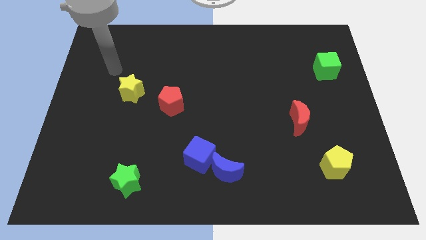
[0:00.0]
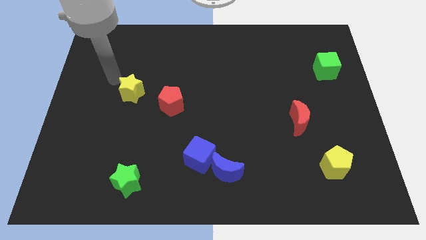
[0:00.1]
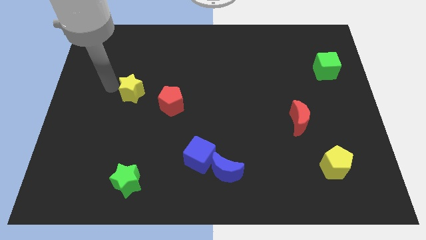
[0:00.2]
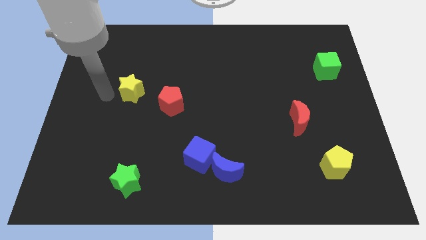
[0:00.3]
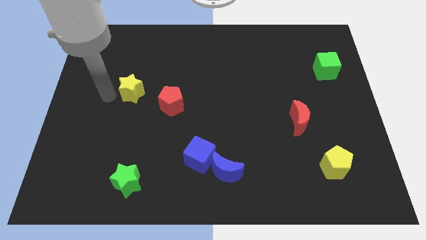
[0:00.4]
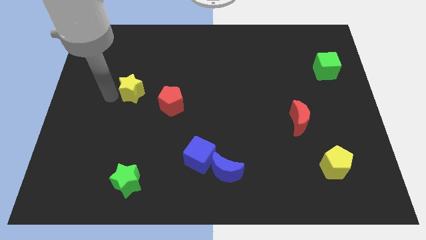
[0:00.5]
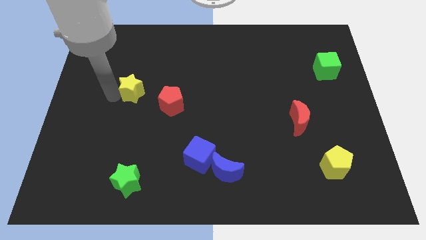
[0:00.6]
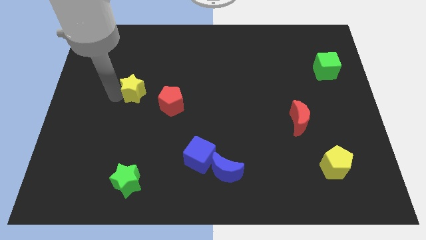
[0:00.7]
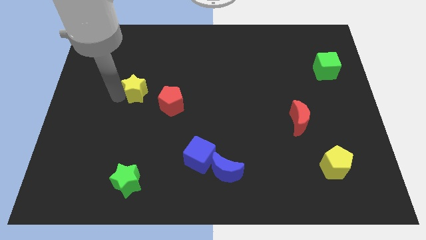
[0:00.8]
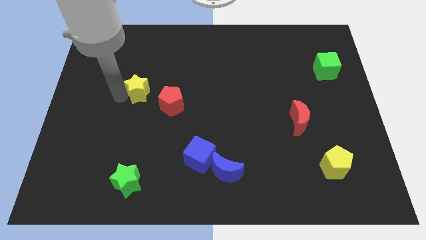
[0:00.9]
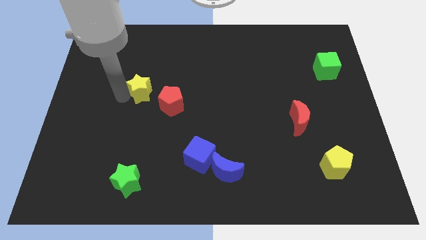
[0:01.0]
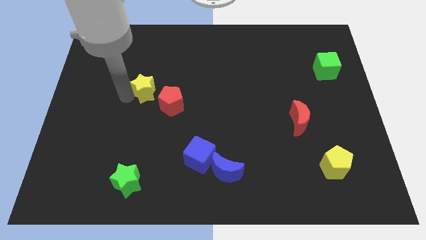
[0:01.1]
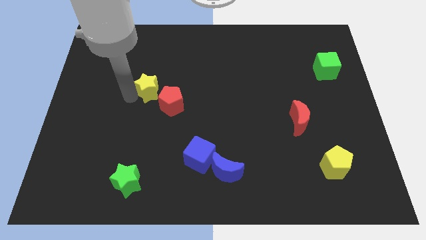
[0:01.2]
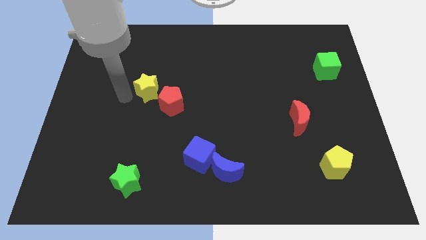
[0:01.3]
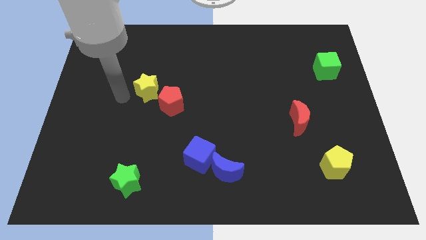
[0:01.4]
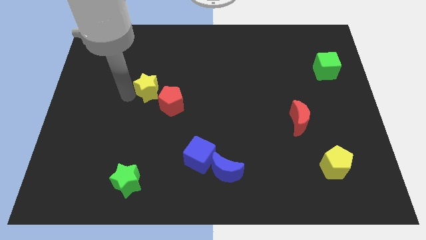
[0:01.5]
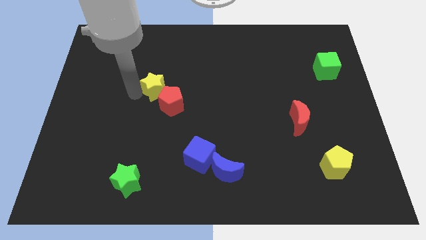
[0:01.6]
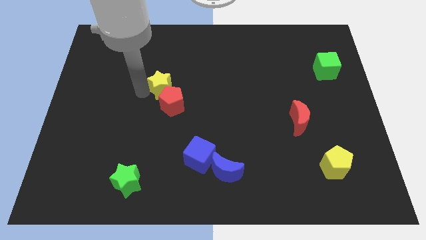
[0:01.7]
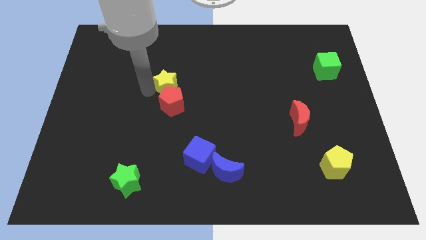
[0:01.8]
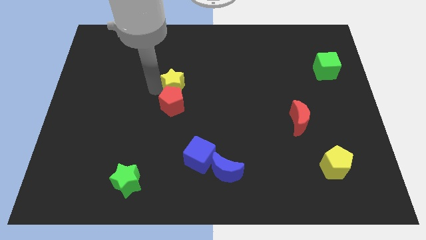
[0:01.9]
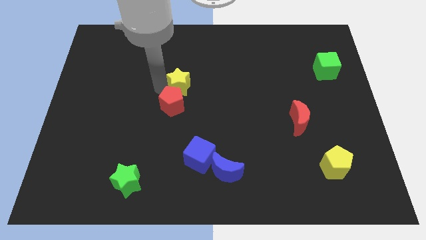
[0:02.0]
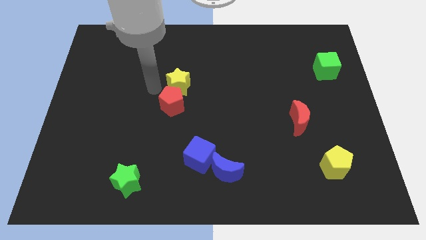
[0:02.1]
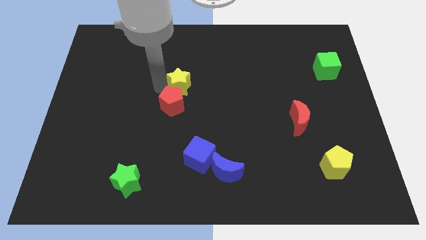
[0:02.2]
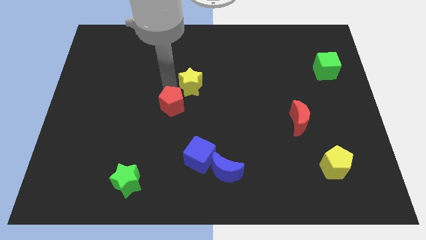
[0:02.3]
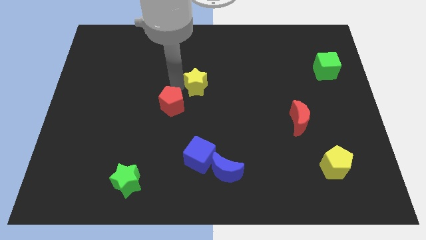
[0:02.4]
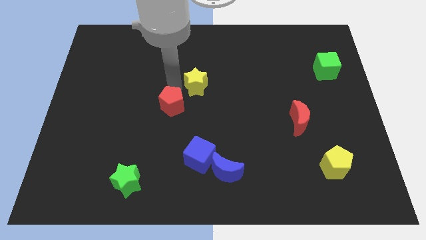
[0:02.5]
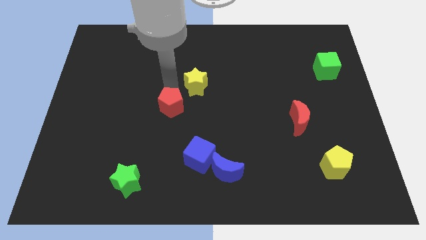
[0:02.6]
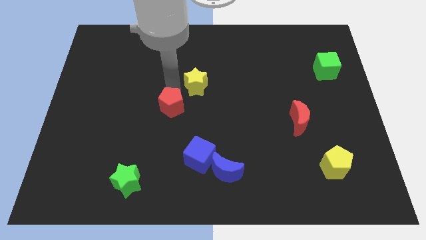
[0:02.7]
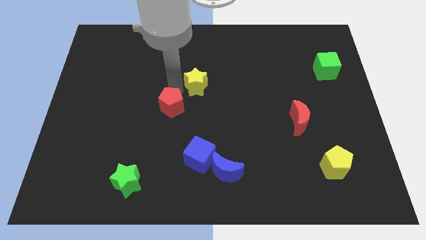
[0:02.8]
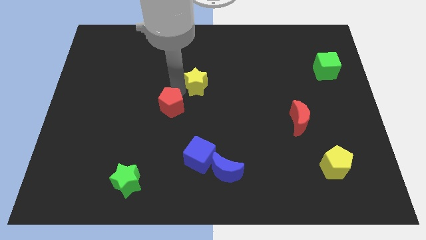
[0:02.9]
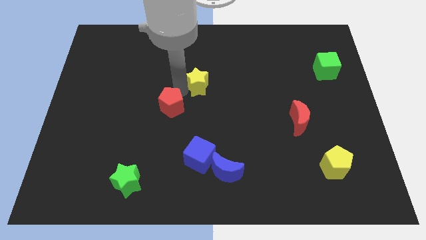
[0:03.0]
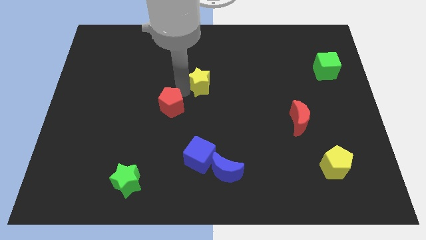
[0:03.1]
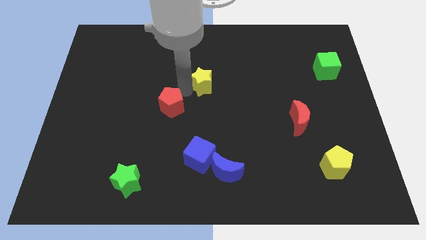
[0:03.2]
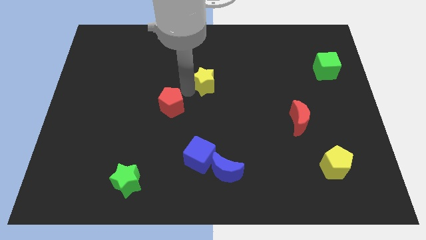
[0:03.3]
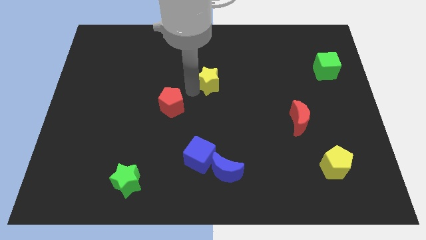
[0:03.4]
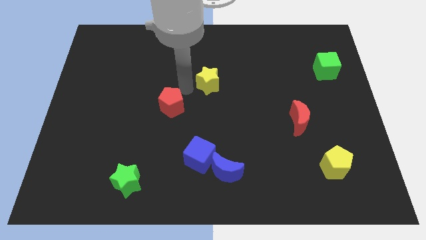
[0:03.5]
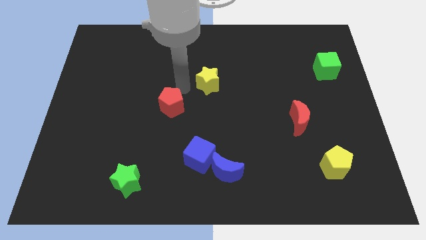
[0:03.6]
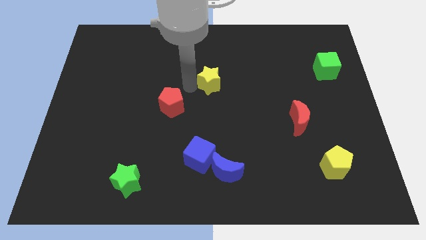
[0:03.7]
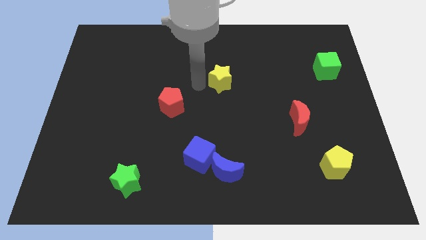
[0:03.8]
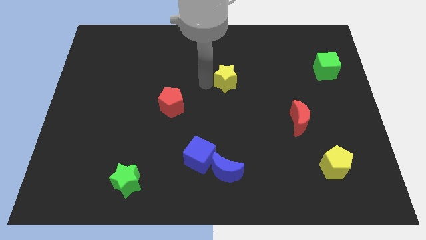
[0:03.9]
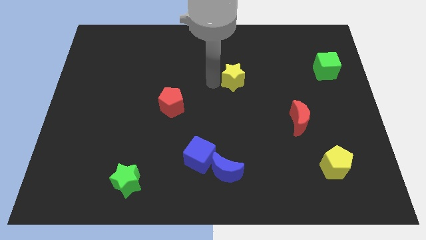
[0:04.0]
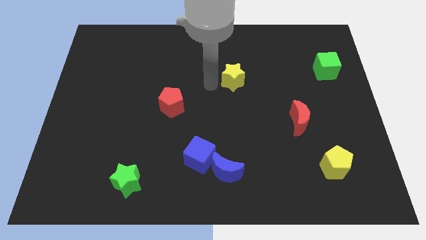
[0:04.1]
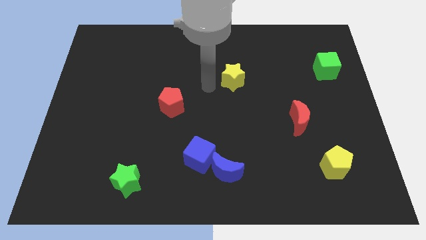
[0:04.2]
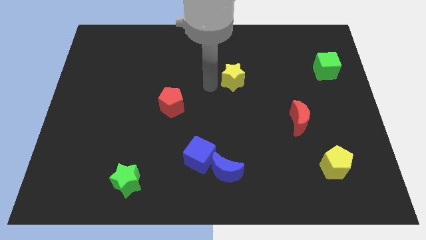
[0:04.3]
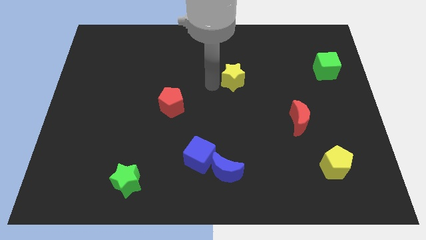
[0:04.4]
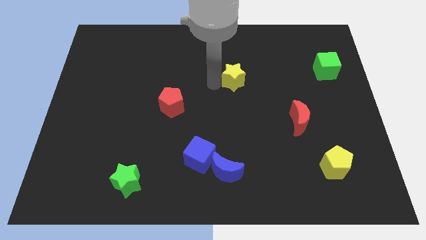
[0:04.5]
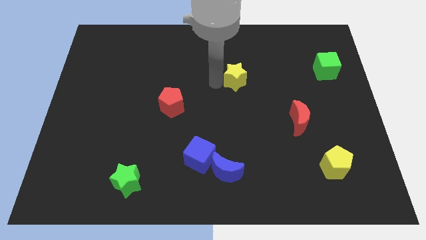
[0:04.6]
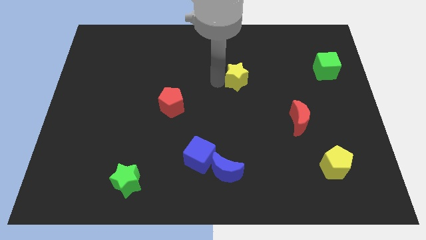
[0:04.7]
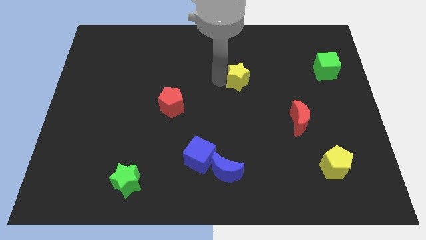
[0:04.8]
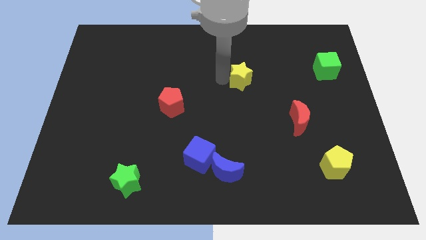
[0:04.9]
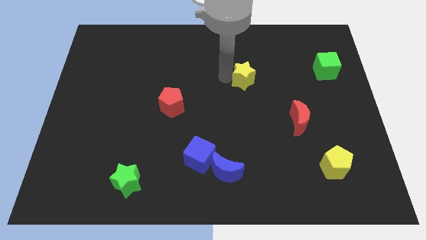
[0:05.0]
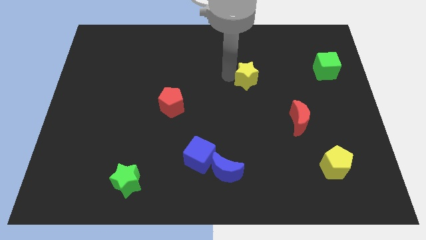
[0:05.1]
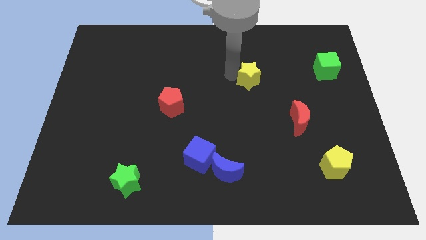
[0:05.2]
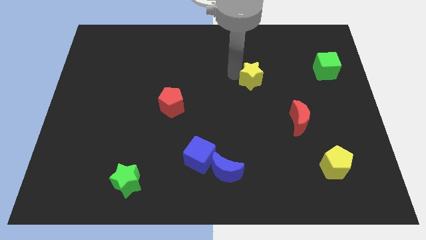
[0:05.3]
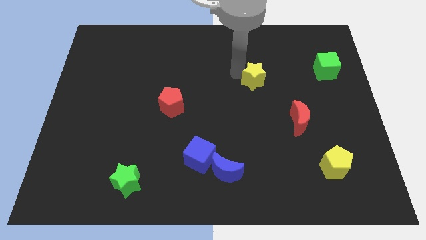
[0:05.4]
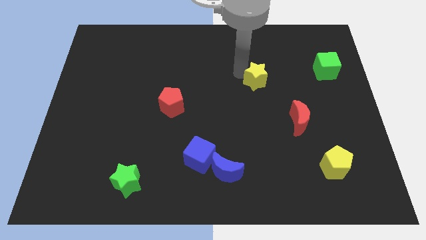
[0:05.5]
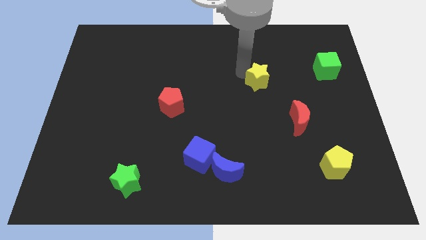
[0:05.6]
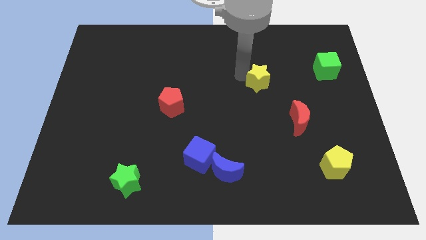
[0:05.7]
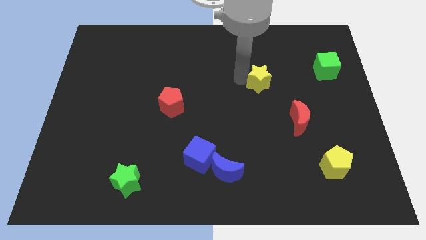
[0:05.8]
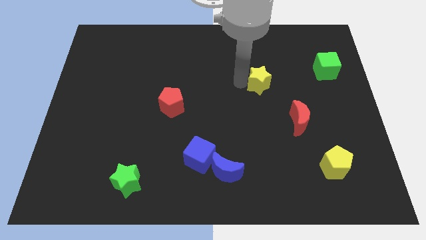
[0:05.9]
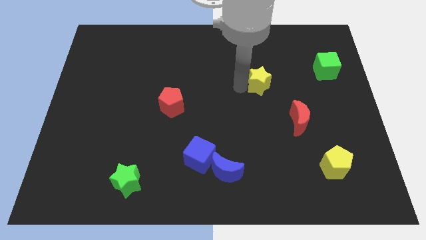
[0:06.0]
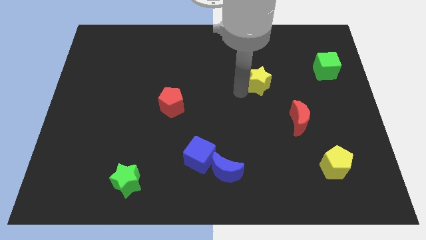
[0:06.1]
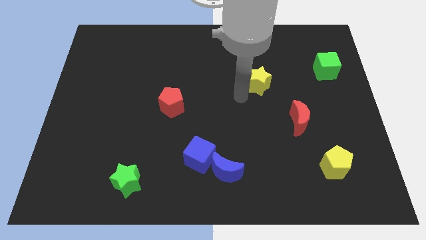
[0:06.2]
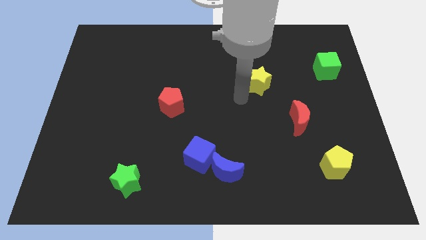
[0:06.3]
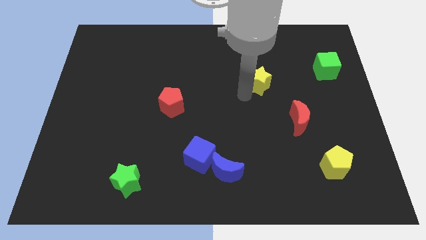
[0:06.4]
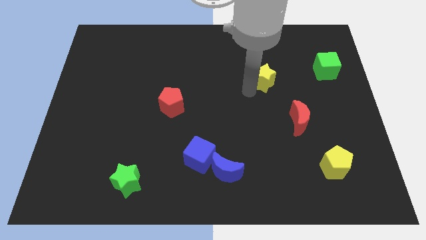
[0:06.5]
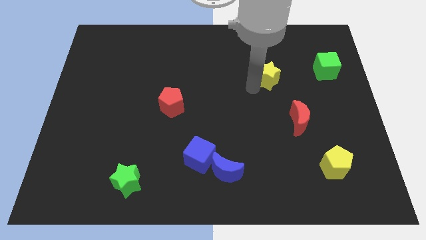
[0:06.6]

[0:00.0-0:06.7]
slide the yellow star to the left of the green cube

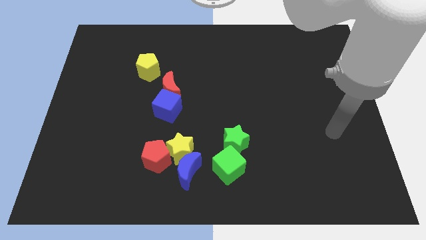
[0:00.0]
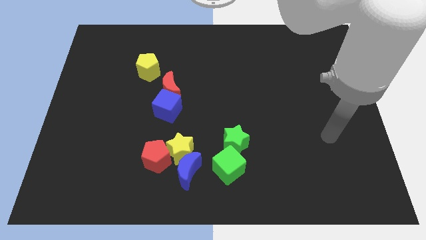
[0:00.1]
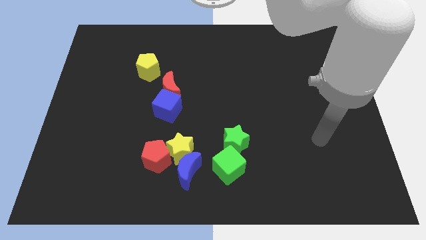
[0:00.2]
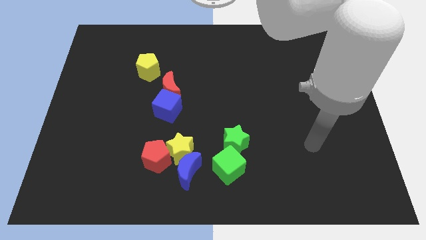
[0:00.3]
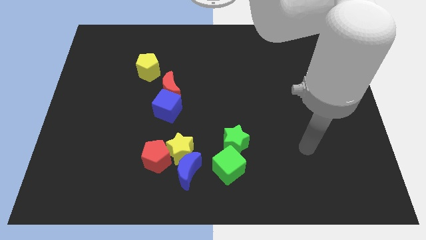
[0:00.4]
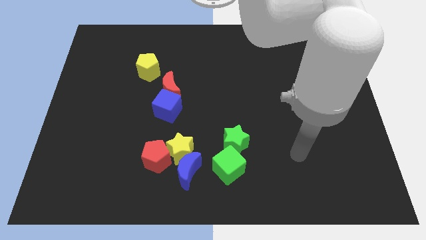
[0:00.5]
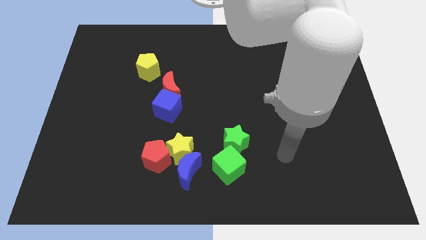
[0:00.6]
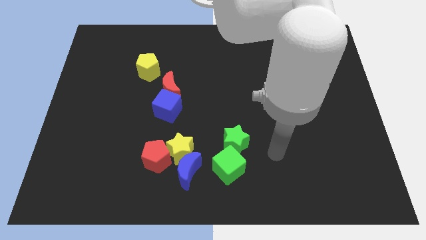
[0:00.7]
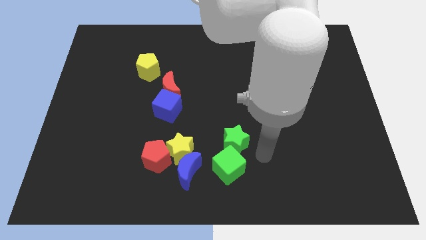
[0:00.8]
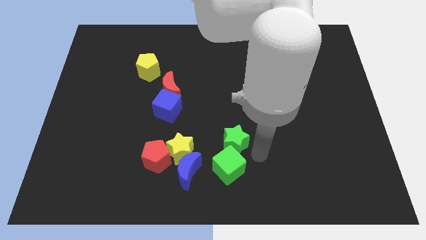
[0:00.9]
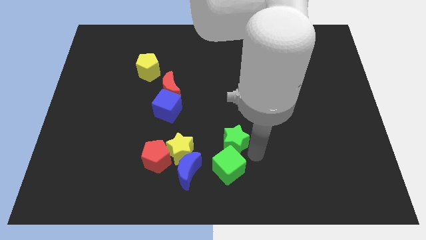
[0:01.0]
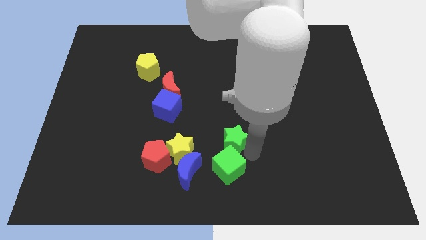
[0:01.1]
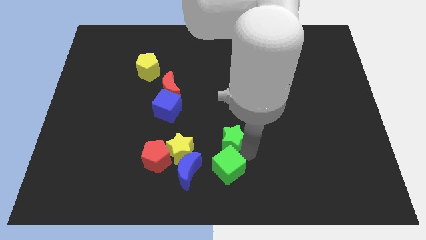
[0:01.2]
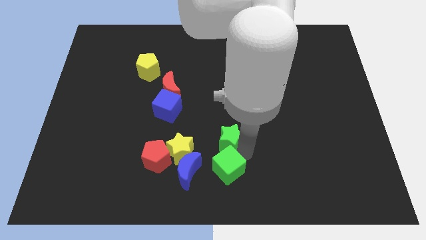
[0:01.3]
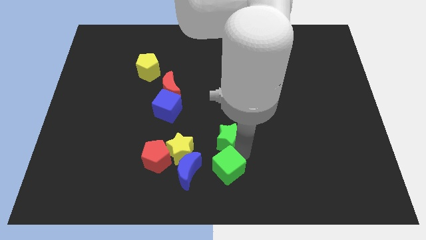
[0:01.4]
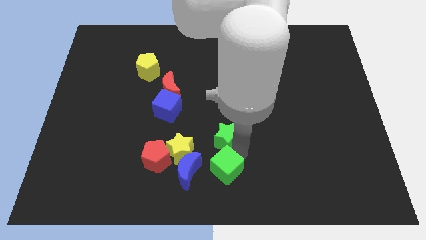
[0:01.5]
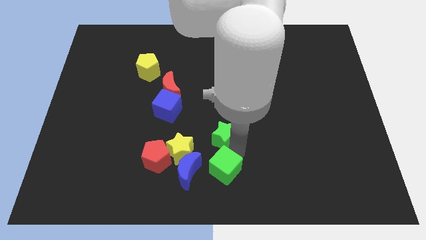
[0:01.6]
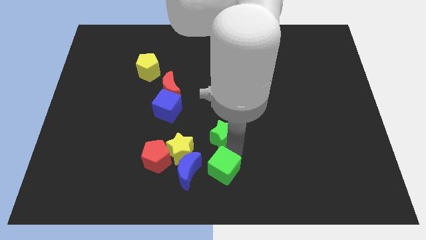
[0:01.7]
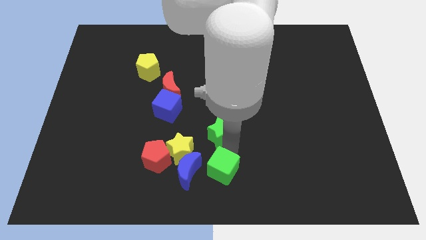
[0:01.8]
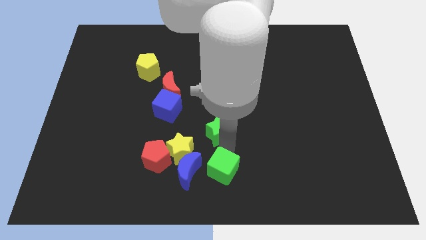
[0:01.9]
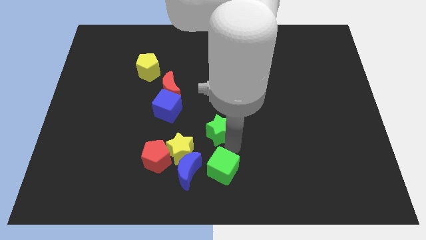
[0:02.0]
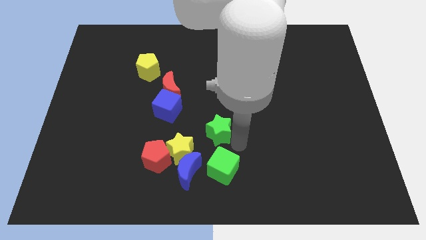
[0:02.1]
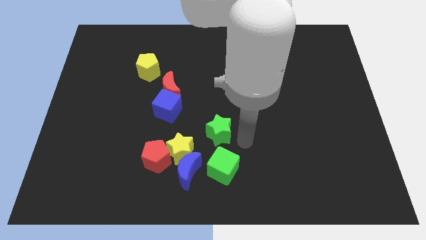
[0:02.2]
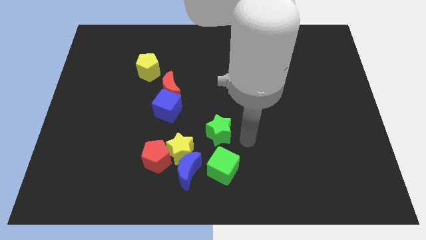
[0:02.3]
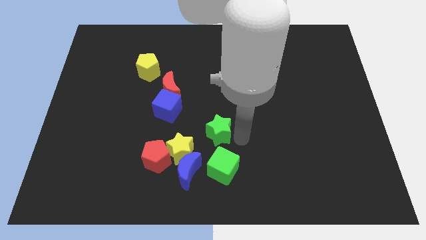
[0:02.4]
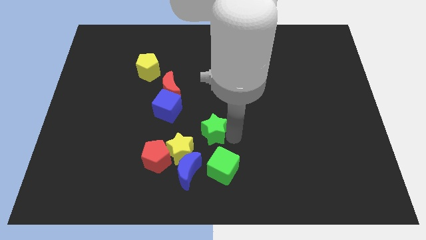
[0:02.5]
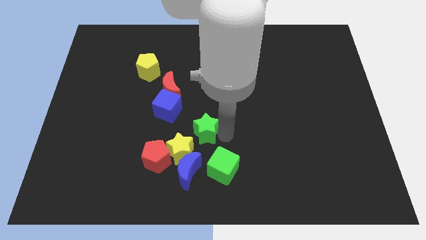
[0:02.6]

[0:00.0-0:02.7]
put the green star to the bottom right side of the blue cube
